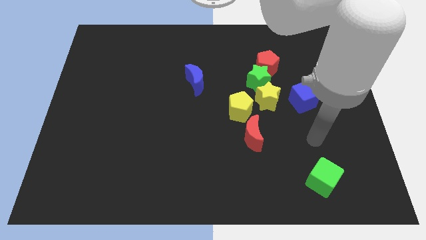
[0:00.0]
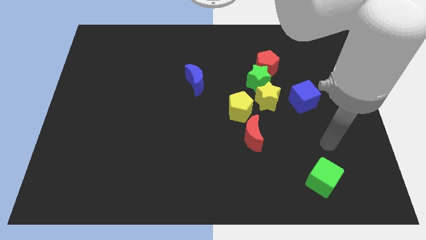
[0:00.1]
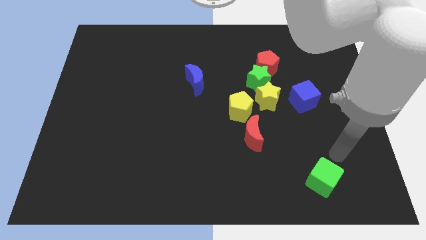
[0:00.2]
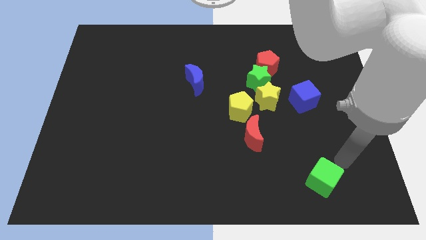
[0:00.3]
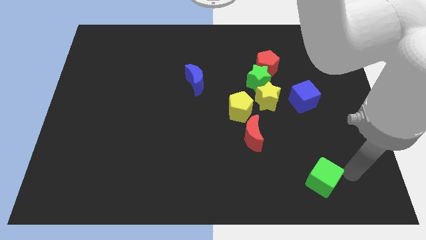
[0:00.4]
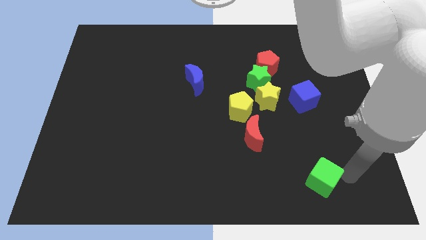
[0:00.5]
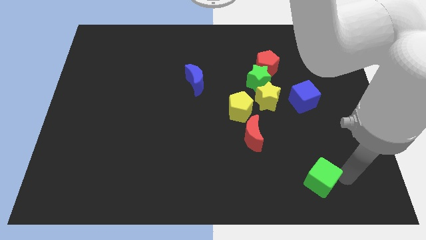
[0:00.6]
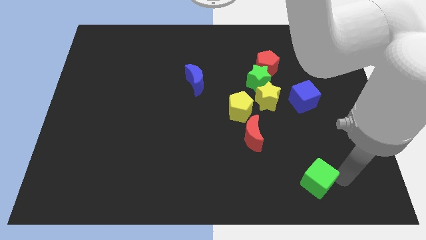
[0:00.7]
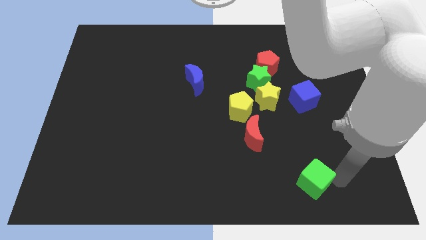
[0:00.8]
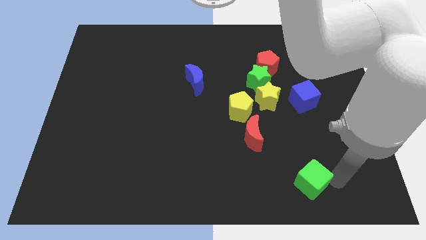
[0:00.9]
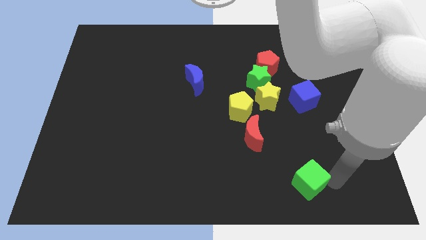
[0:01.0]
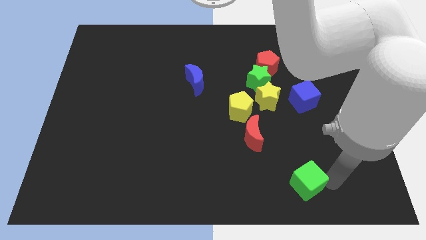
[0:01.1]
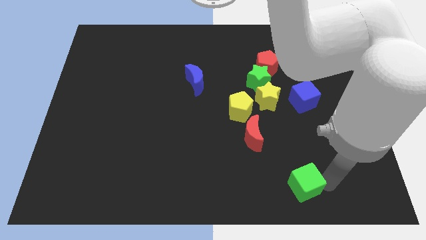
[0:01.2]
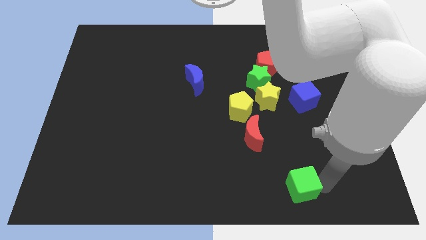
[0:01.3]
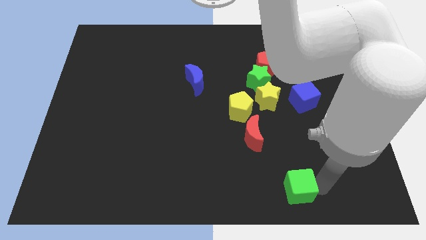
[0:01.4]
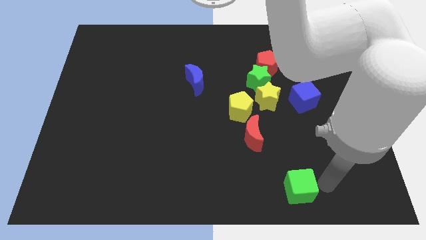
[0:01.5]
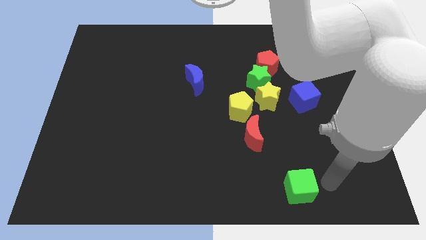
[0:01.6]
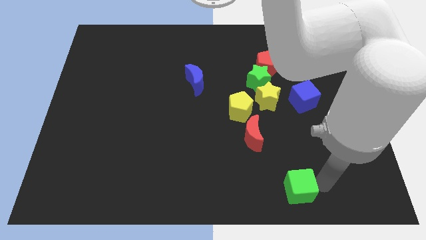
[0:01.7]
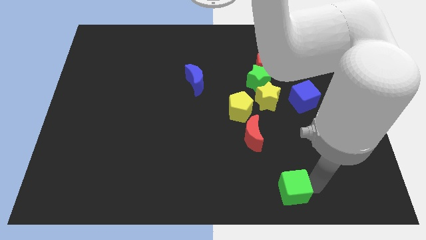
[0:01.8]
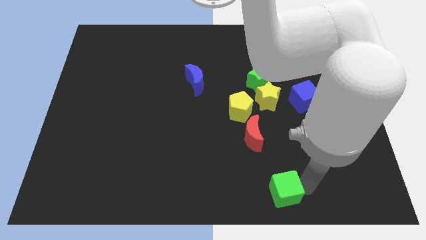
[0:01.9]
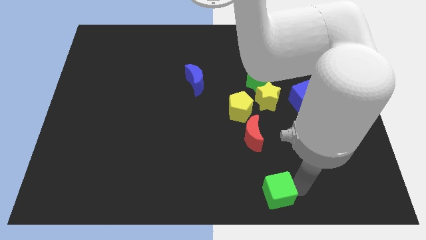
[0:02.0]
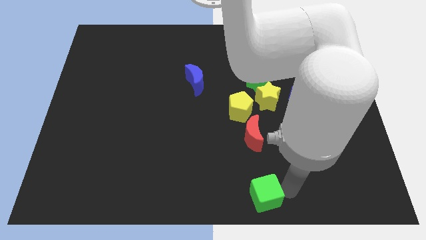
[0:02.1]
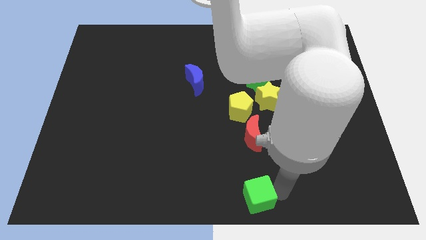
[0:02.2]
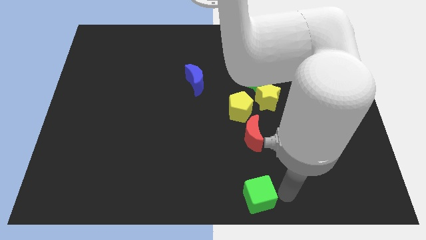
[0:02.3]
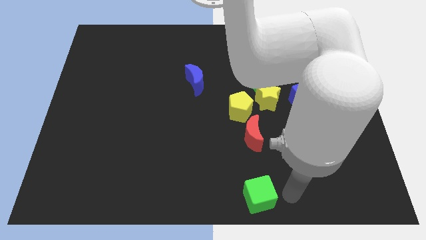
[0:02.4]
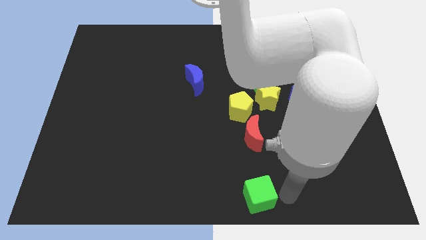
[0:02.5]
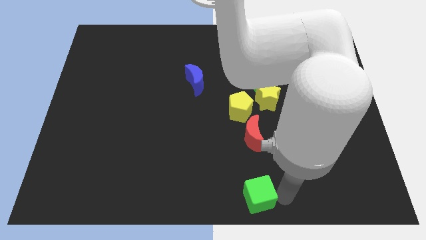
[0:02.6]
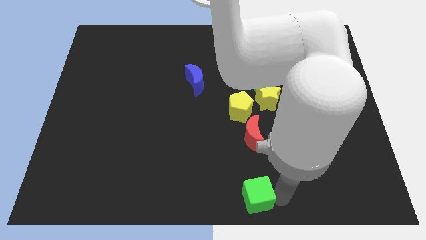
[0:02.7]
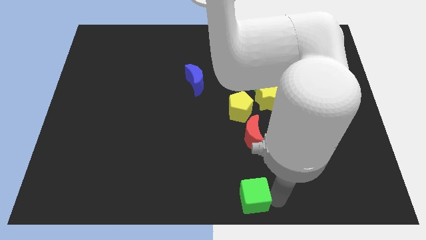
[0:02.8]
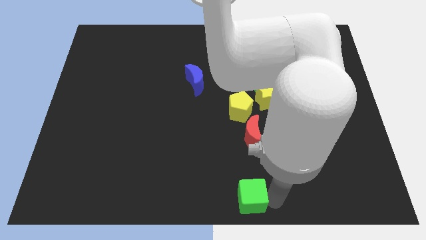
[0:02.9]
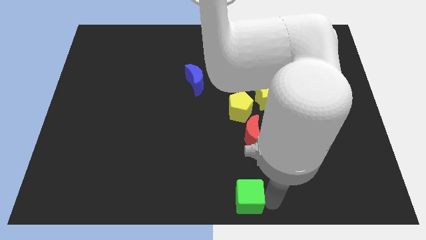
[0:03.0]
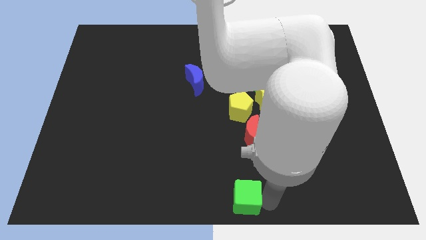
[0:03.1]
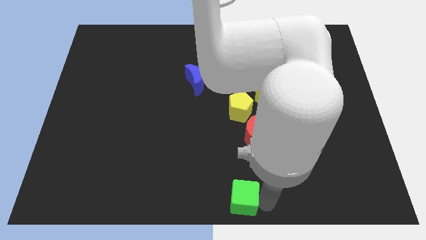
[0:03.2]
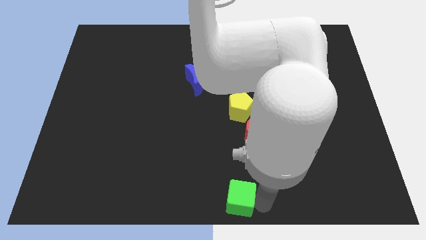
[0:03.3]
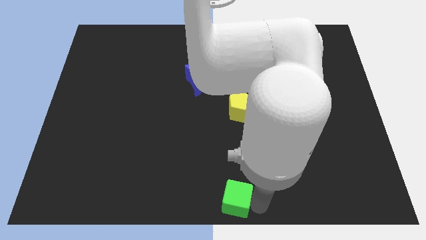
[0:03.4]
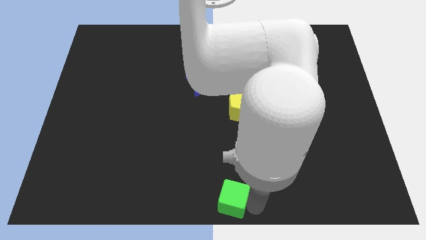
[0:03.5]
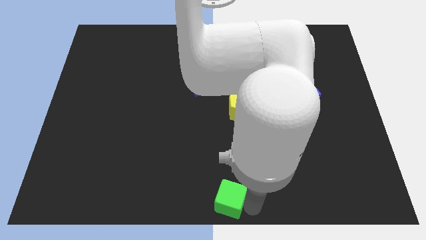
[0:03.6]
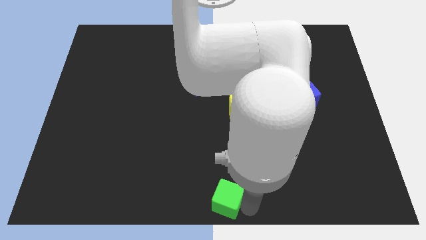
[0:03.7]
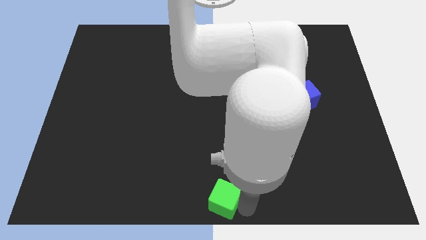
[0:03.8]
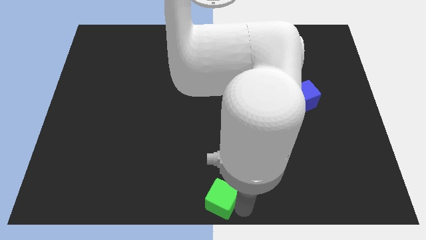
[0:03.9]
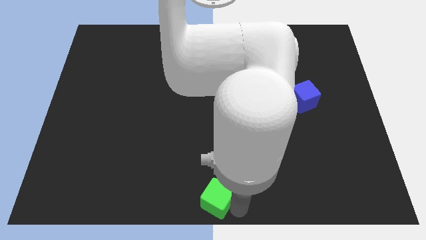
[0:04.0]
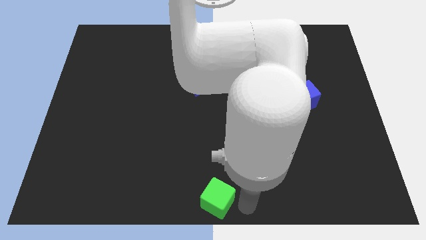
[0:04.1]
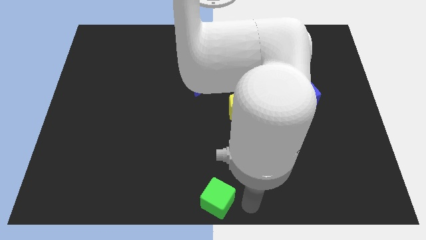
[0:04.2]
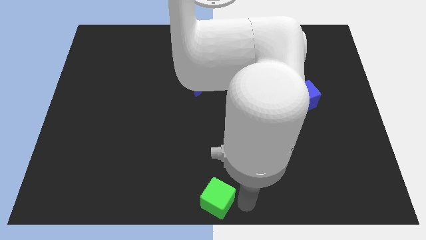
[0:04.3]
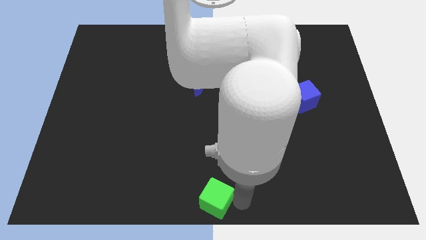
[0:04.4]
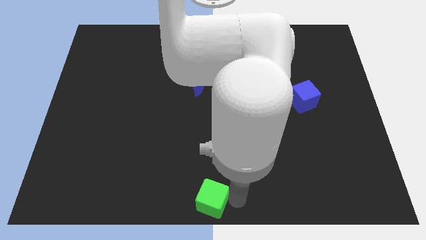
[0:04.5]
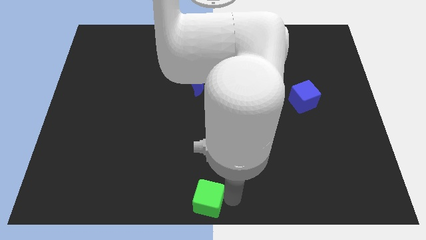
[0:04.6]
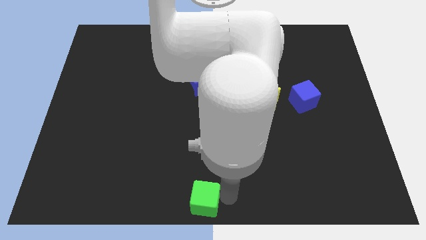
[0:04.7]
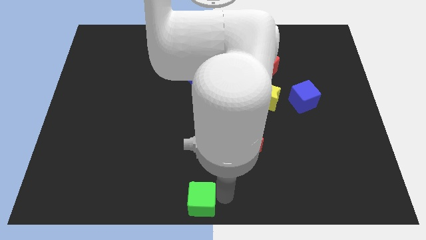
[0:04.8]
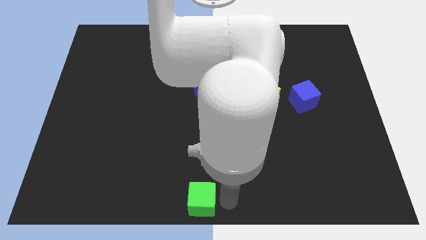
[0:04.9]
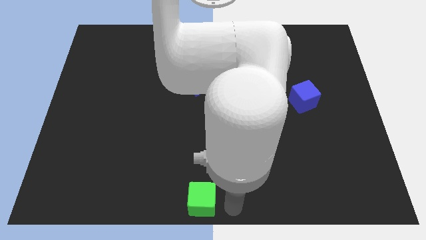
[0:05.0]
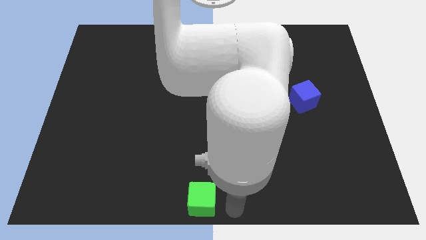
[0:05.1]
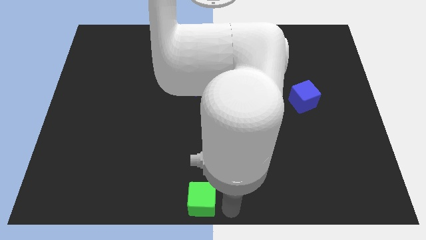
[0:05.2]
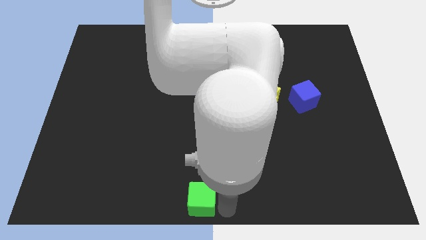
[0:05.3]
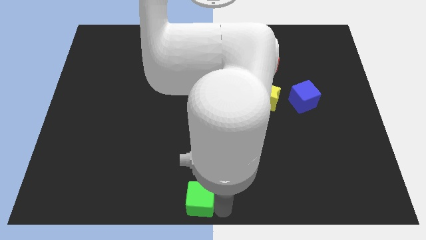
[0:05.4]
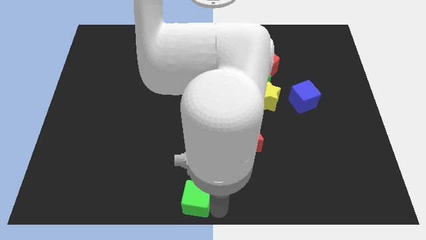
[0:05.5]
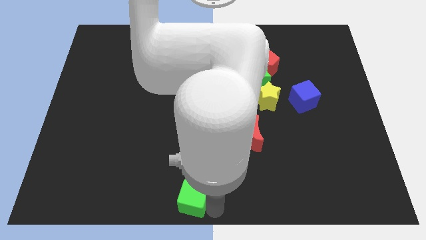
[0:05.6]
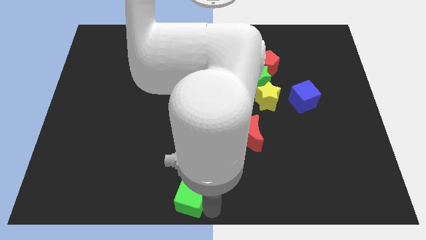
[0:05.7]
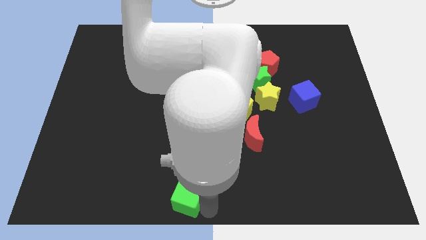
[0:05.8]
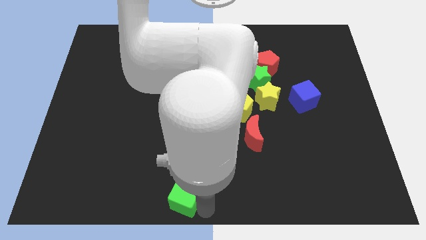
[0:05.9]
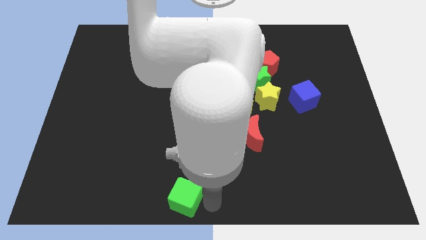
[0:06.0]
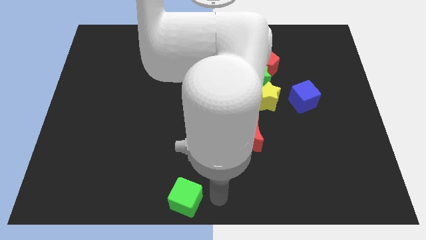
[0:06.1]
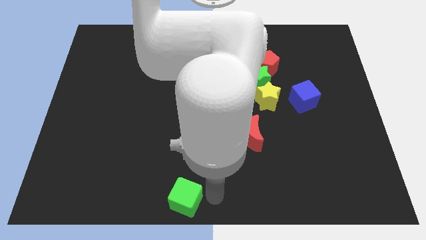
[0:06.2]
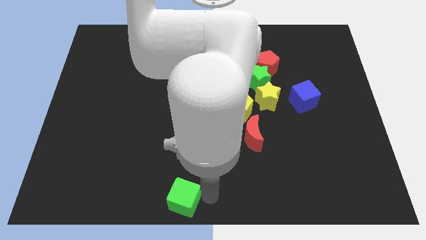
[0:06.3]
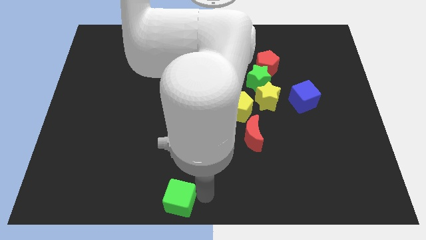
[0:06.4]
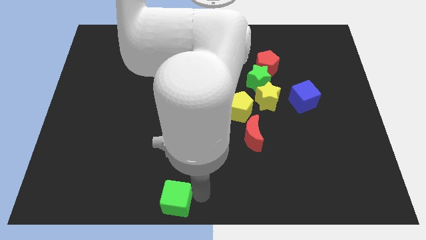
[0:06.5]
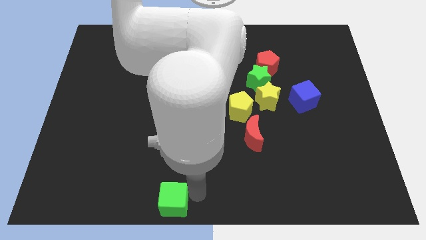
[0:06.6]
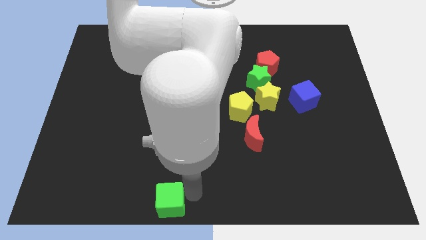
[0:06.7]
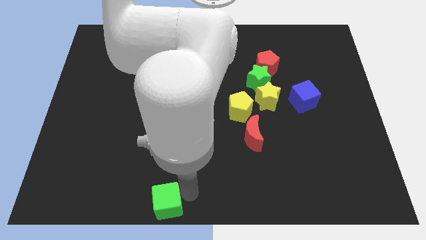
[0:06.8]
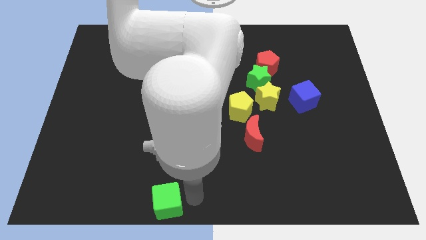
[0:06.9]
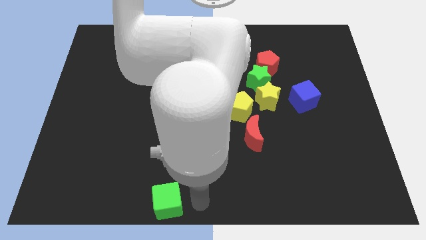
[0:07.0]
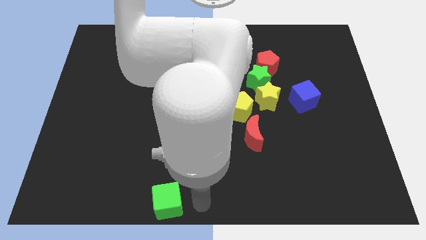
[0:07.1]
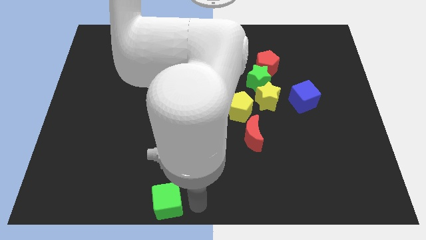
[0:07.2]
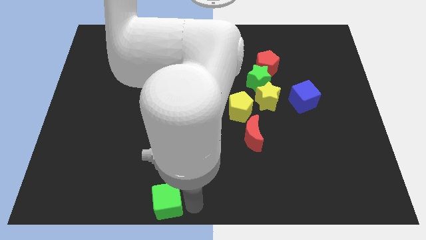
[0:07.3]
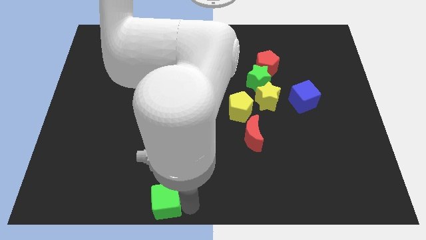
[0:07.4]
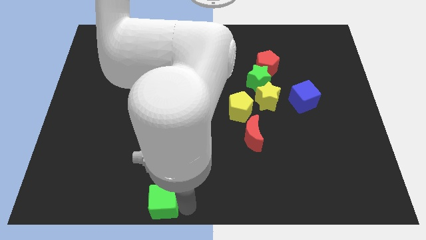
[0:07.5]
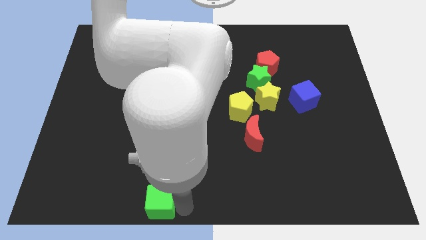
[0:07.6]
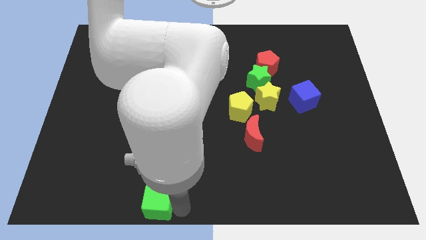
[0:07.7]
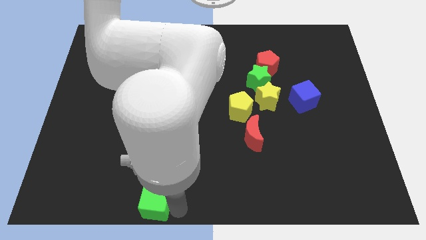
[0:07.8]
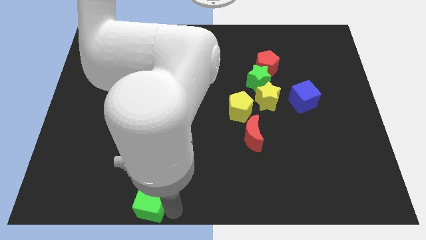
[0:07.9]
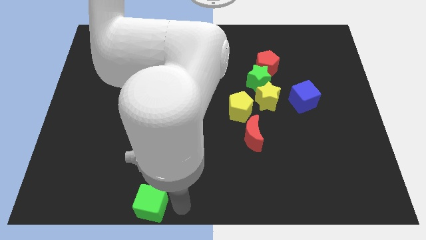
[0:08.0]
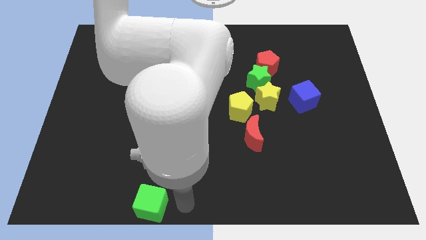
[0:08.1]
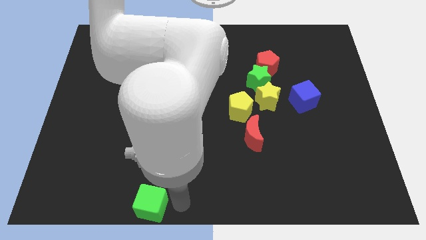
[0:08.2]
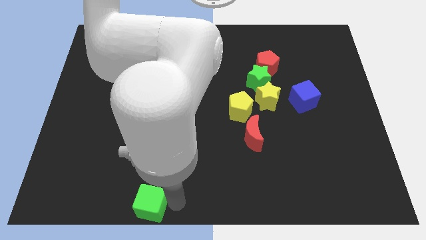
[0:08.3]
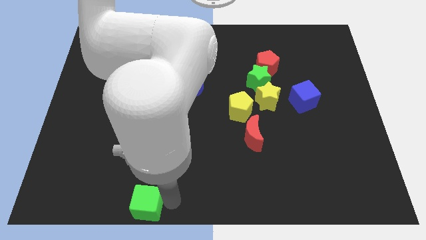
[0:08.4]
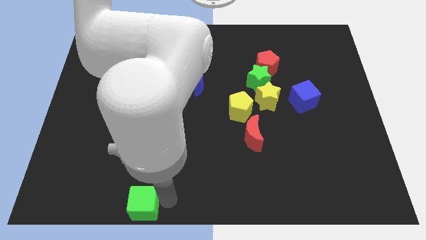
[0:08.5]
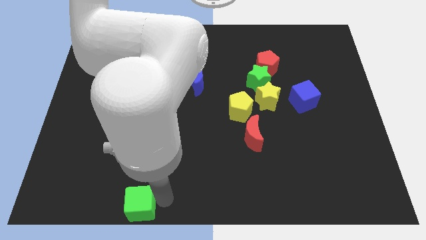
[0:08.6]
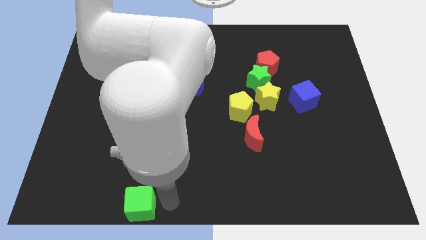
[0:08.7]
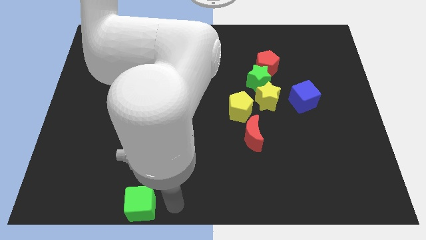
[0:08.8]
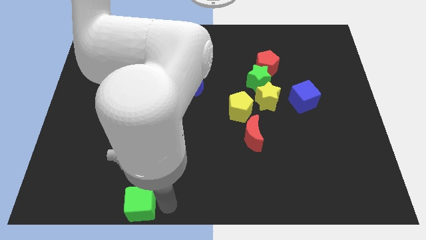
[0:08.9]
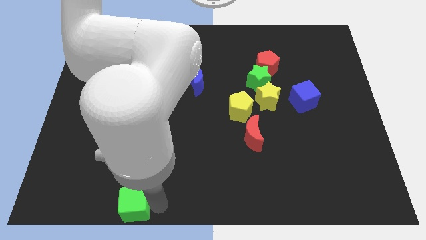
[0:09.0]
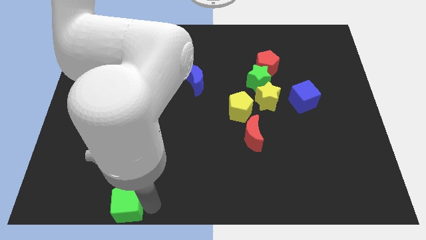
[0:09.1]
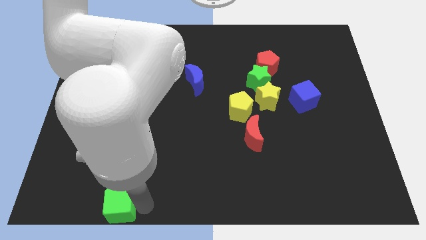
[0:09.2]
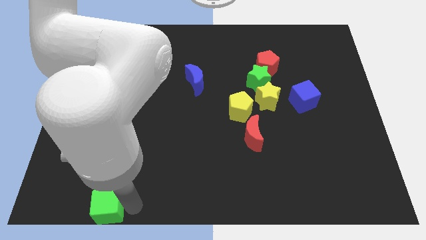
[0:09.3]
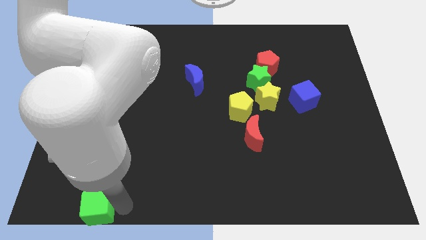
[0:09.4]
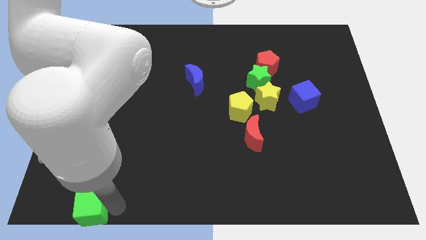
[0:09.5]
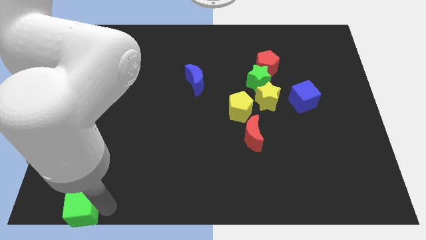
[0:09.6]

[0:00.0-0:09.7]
slide the green cube to the bottom left corner
